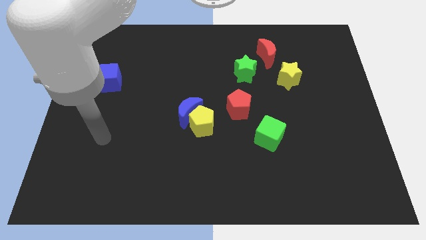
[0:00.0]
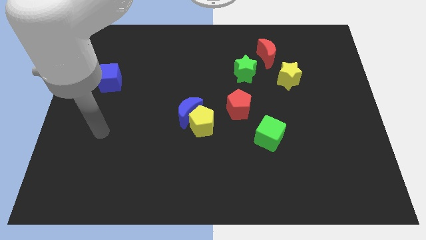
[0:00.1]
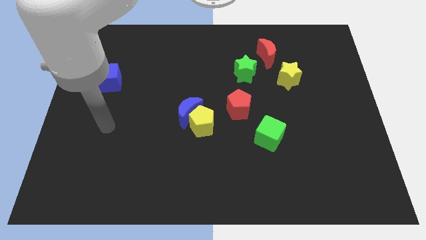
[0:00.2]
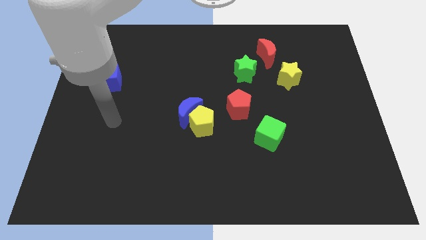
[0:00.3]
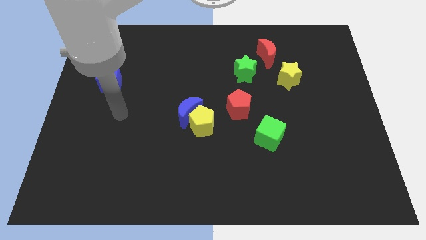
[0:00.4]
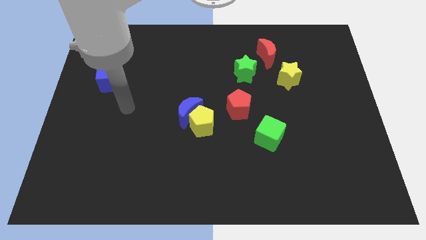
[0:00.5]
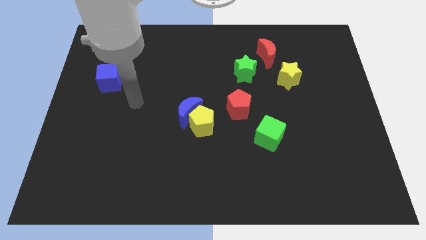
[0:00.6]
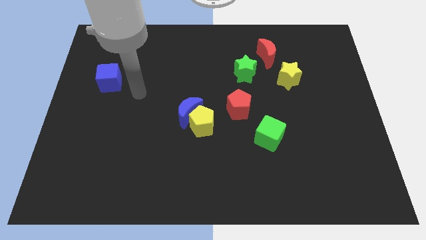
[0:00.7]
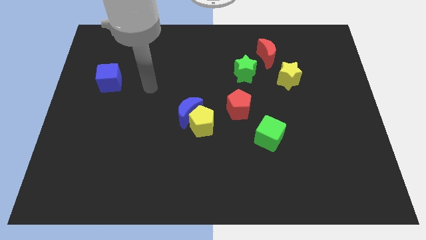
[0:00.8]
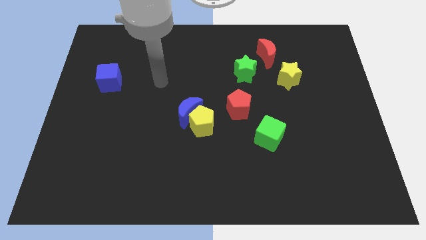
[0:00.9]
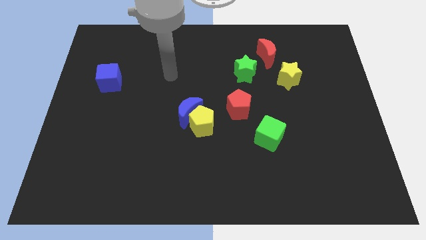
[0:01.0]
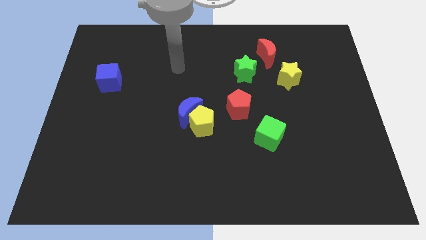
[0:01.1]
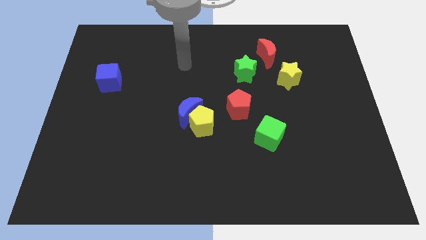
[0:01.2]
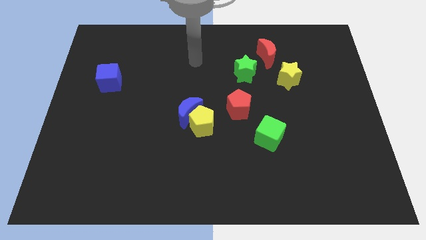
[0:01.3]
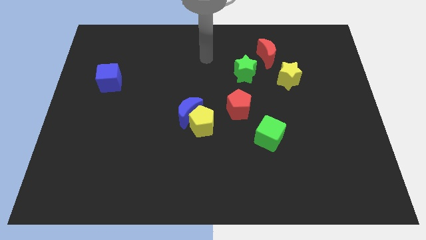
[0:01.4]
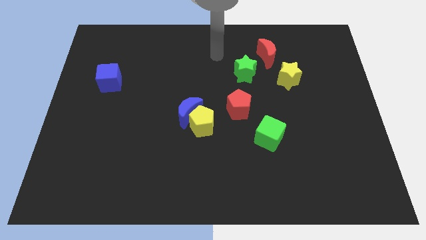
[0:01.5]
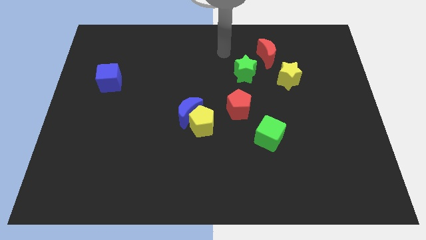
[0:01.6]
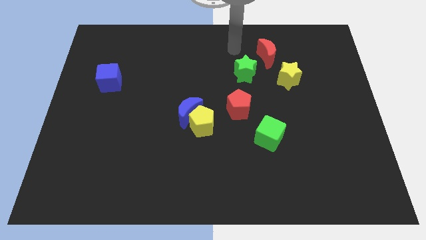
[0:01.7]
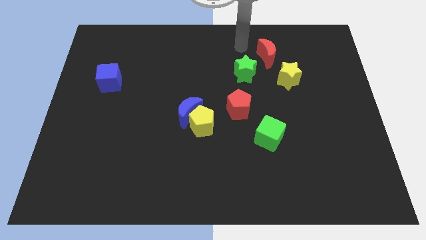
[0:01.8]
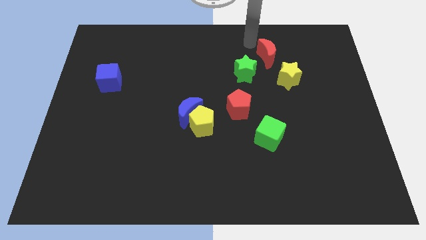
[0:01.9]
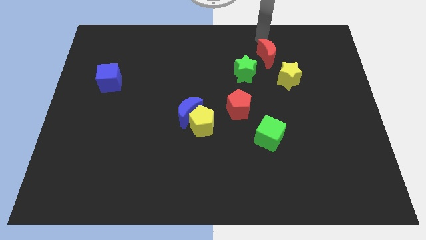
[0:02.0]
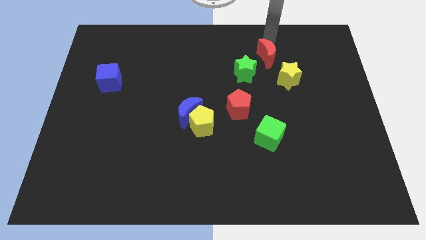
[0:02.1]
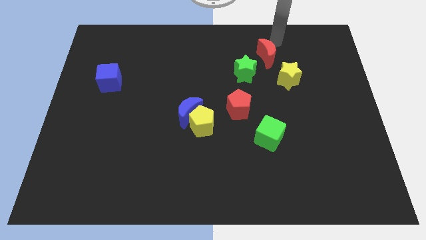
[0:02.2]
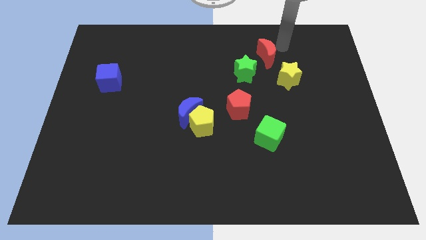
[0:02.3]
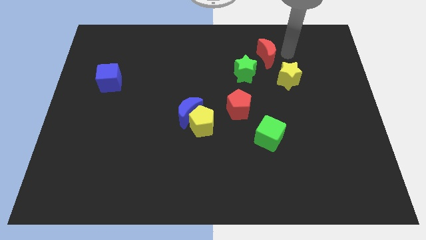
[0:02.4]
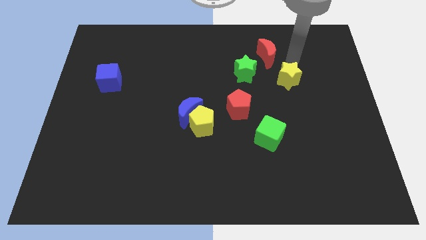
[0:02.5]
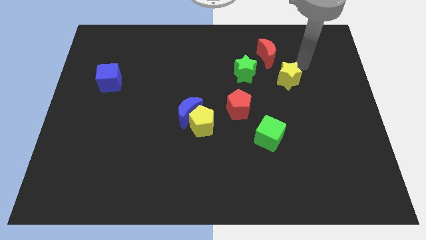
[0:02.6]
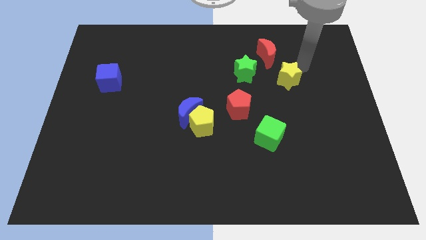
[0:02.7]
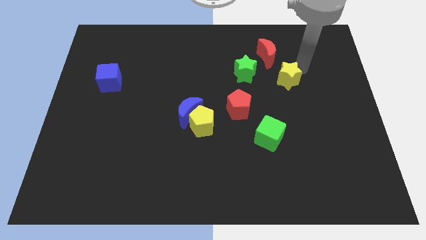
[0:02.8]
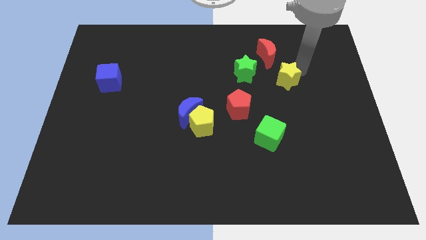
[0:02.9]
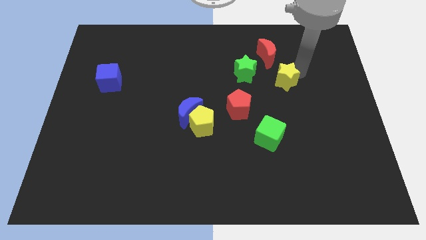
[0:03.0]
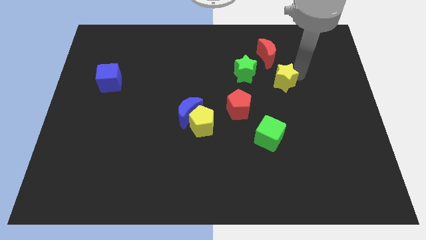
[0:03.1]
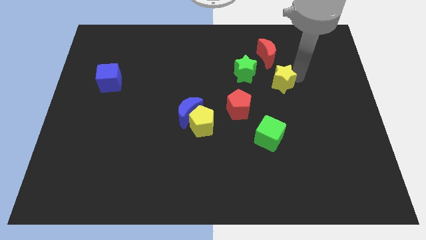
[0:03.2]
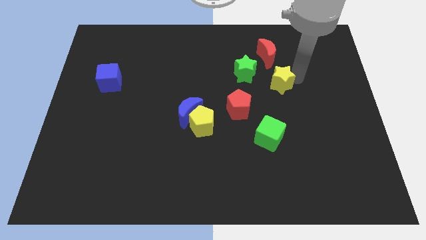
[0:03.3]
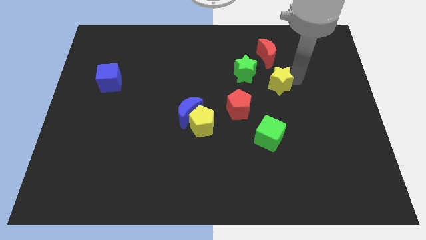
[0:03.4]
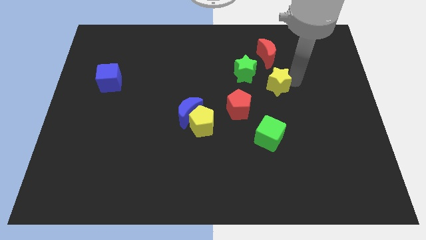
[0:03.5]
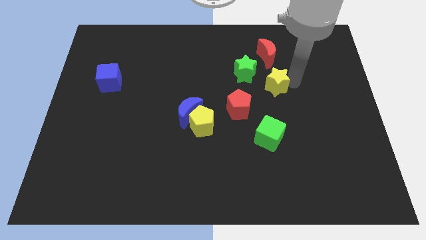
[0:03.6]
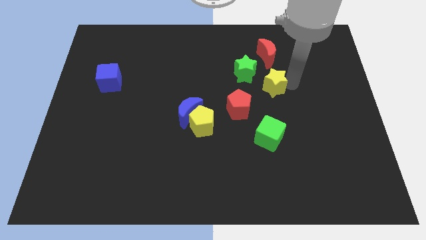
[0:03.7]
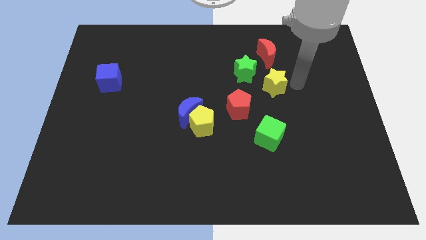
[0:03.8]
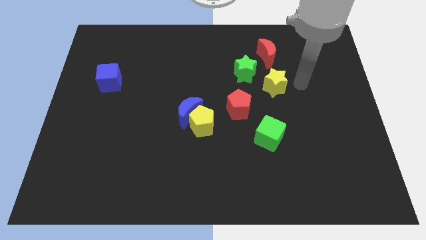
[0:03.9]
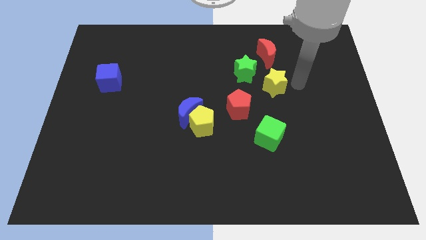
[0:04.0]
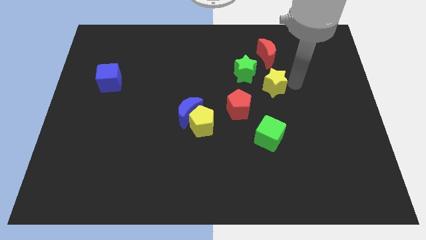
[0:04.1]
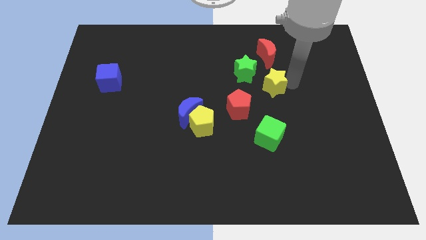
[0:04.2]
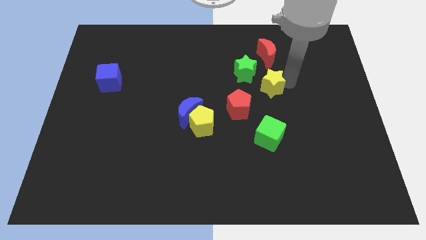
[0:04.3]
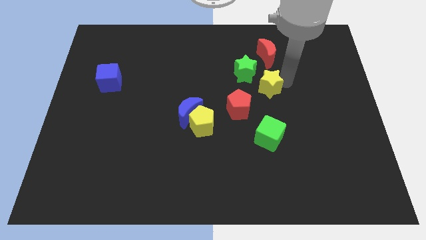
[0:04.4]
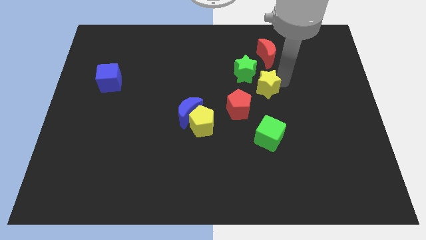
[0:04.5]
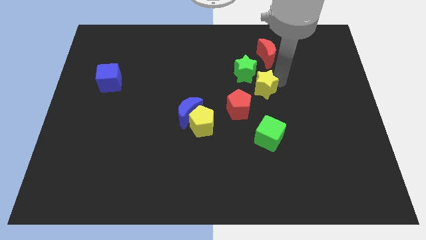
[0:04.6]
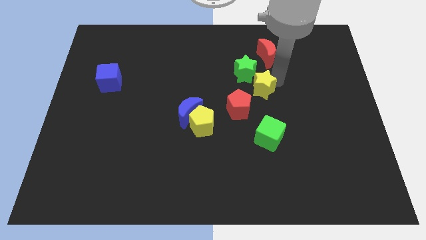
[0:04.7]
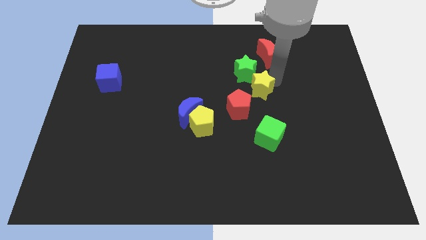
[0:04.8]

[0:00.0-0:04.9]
slightly move the yellow star left

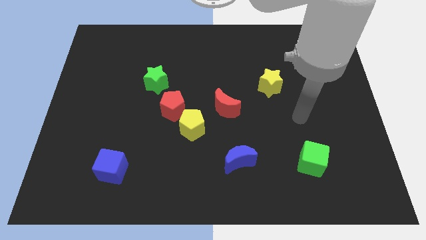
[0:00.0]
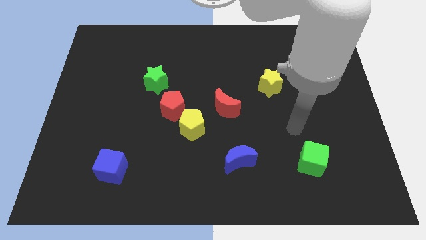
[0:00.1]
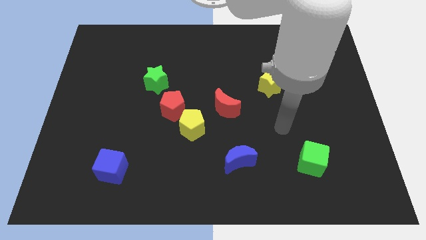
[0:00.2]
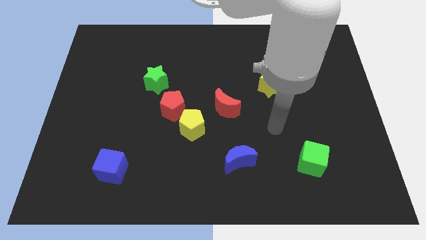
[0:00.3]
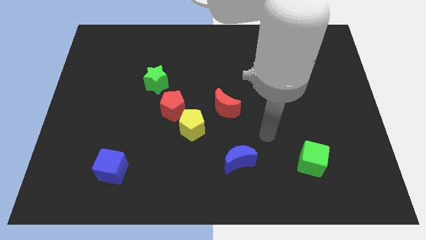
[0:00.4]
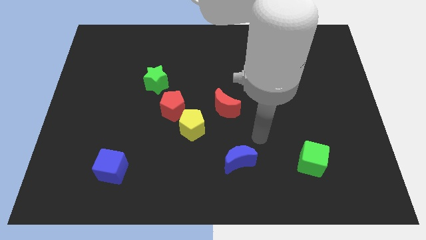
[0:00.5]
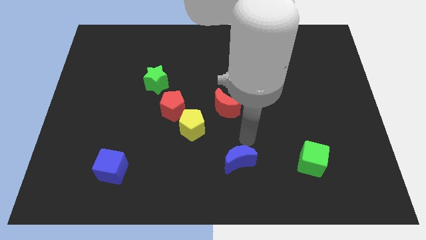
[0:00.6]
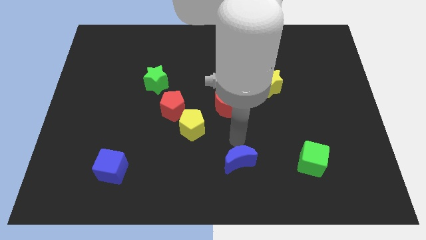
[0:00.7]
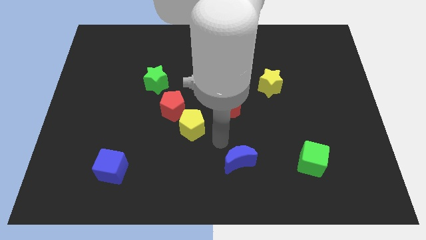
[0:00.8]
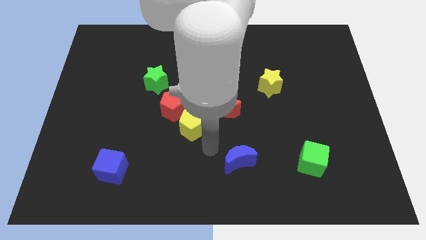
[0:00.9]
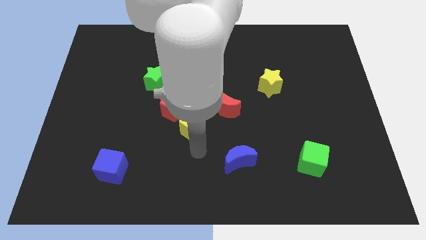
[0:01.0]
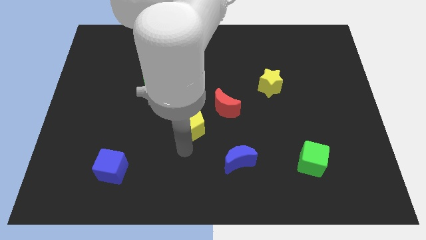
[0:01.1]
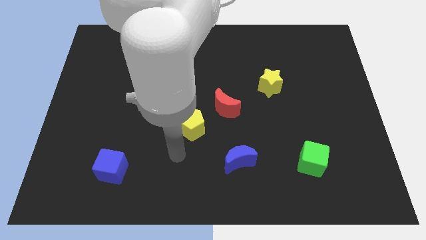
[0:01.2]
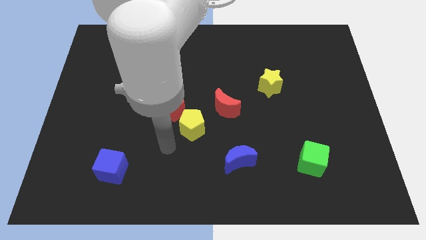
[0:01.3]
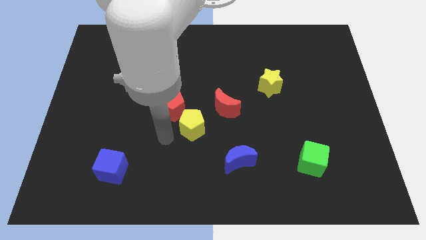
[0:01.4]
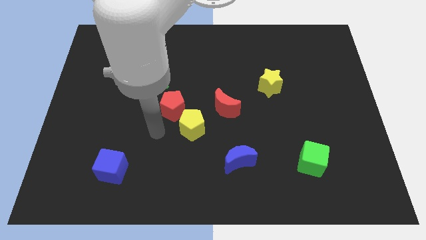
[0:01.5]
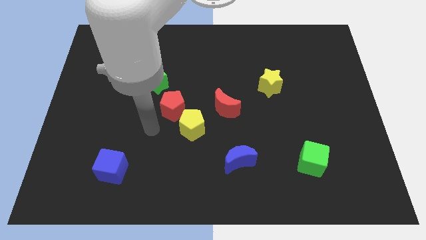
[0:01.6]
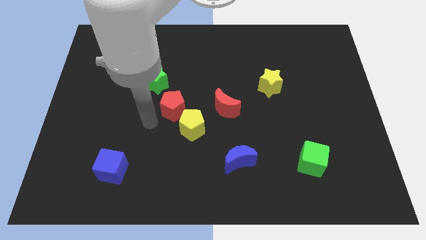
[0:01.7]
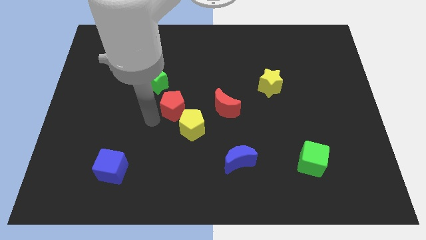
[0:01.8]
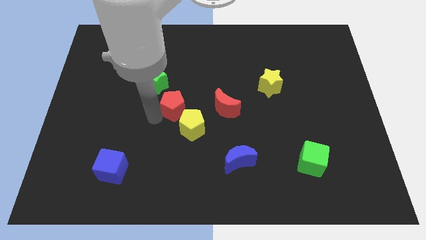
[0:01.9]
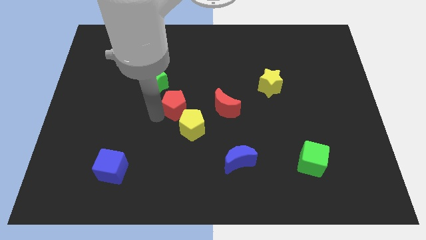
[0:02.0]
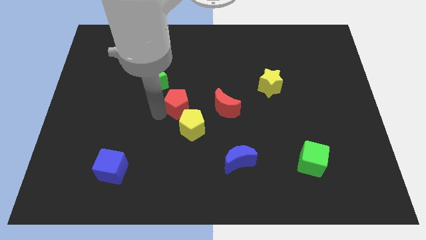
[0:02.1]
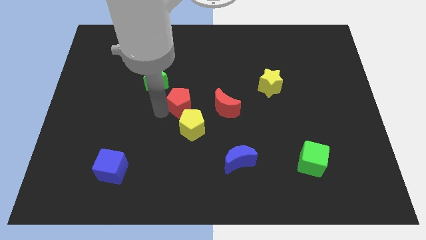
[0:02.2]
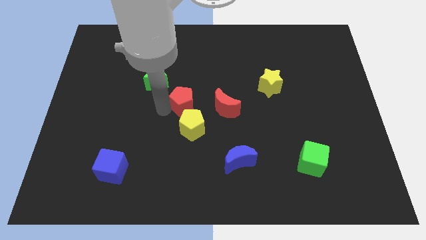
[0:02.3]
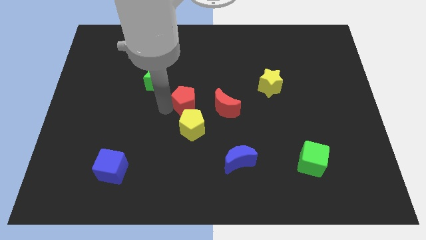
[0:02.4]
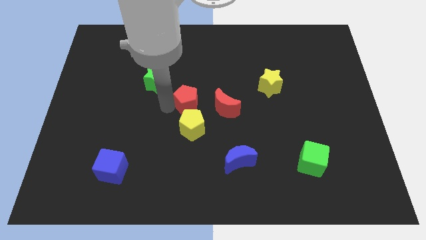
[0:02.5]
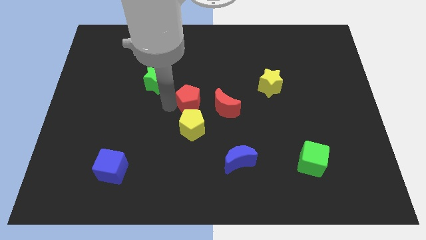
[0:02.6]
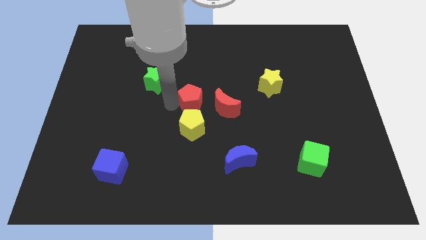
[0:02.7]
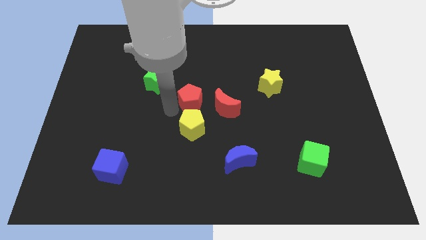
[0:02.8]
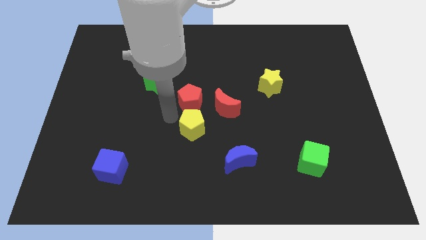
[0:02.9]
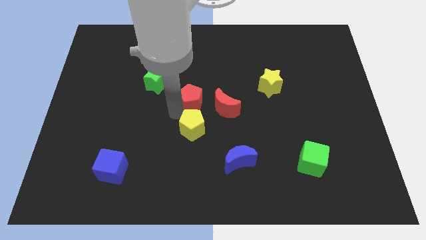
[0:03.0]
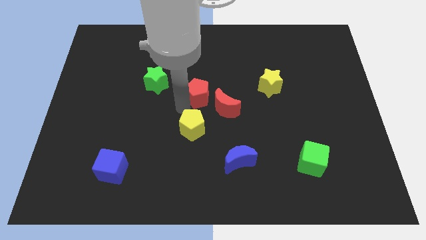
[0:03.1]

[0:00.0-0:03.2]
push the red pentagon somewhat upwards and right diagonally
